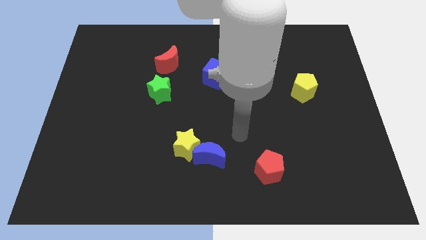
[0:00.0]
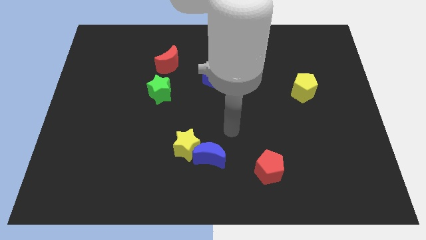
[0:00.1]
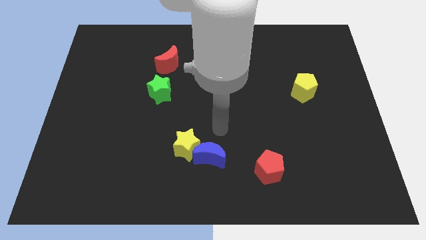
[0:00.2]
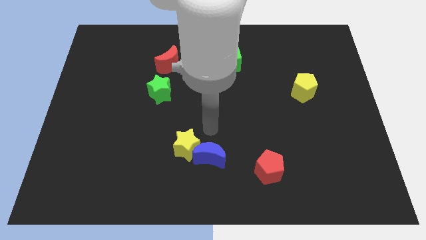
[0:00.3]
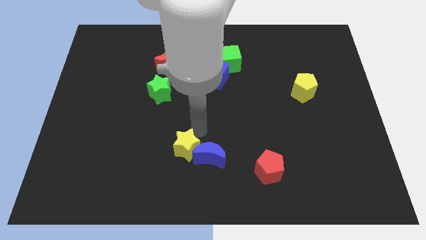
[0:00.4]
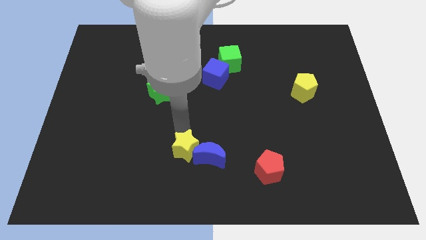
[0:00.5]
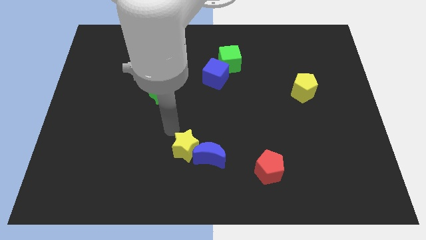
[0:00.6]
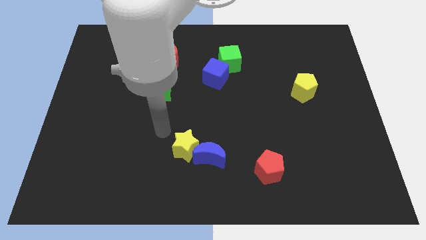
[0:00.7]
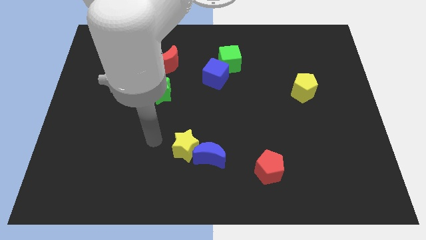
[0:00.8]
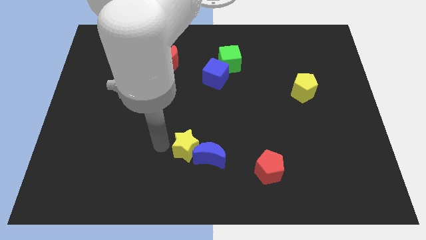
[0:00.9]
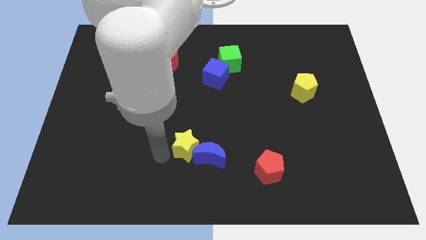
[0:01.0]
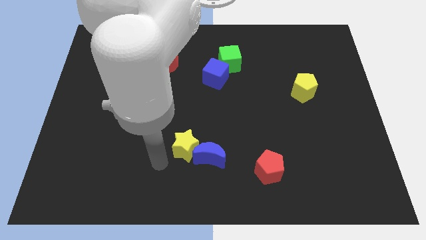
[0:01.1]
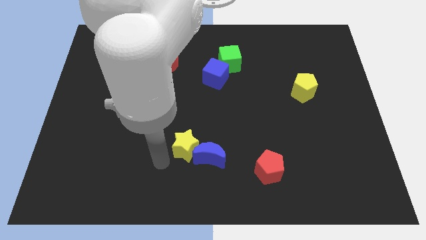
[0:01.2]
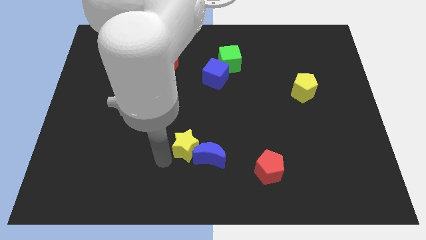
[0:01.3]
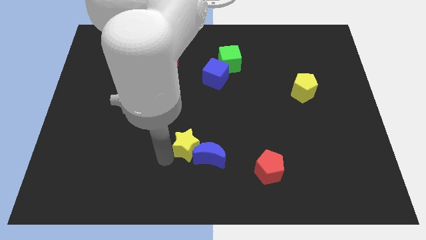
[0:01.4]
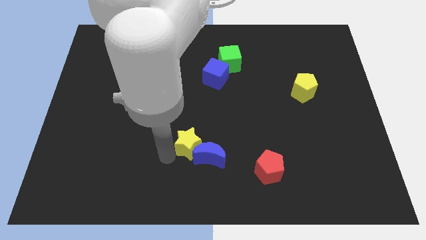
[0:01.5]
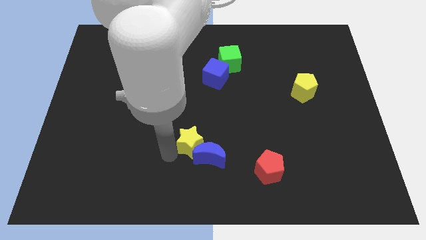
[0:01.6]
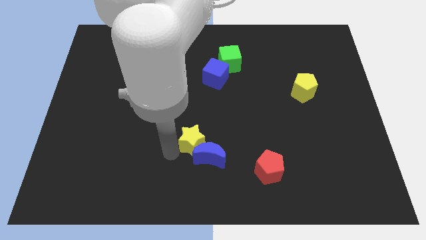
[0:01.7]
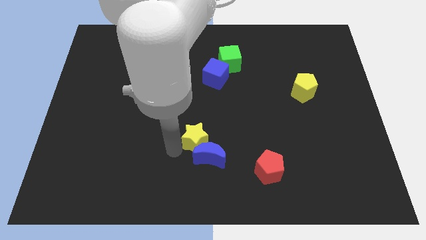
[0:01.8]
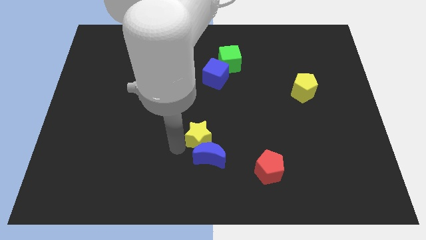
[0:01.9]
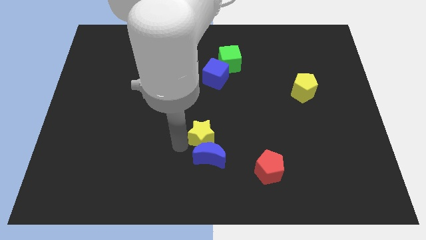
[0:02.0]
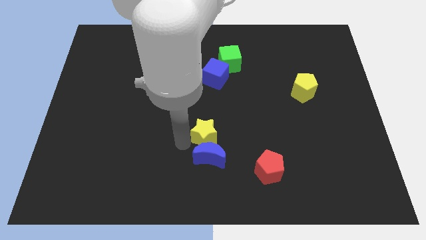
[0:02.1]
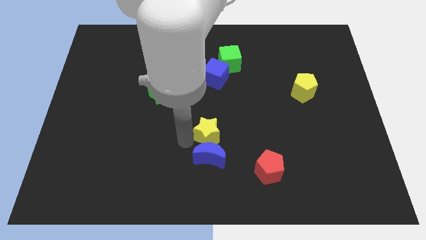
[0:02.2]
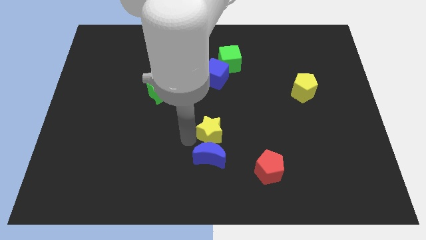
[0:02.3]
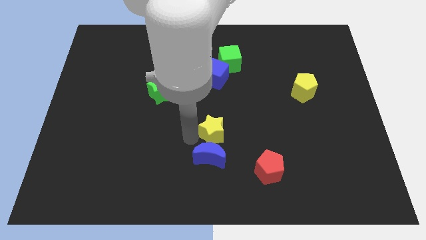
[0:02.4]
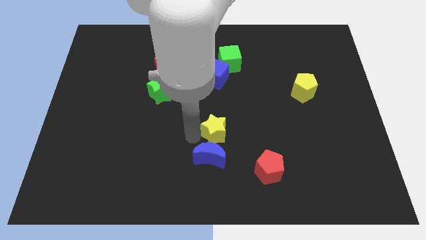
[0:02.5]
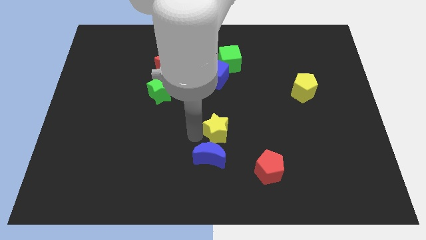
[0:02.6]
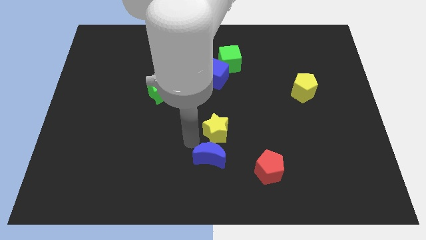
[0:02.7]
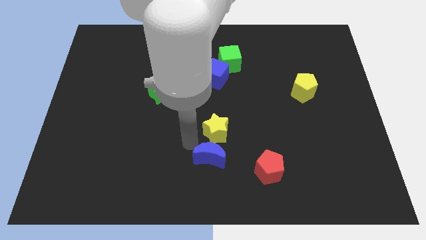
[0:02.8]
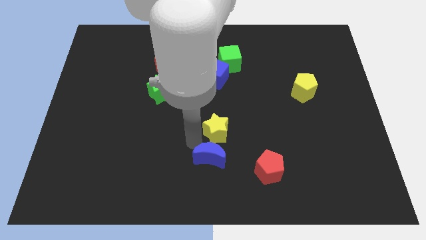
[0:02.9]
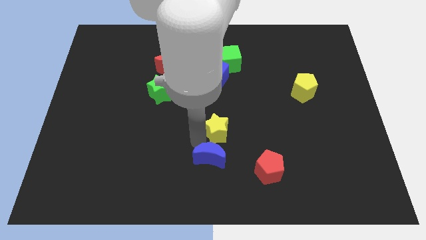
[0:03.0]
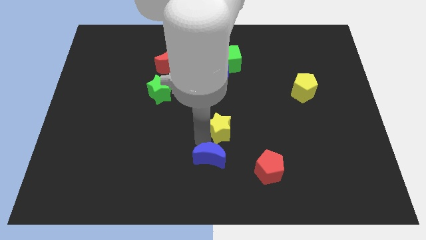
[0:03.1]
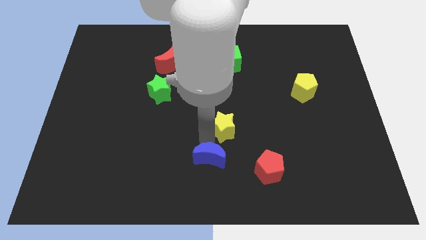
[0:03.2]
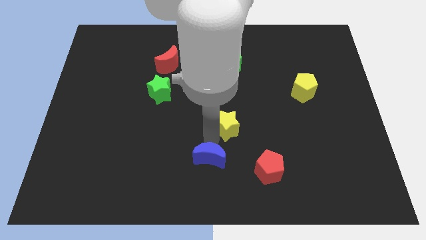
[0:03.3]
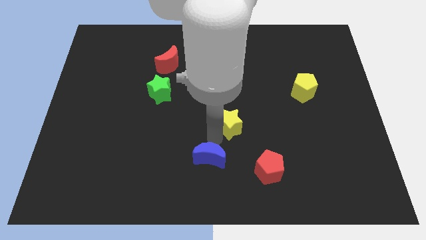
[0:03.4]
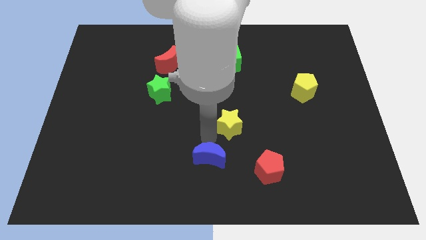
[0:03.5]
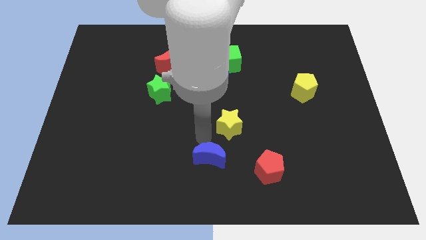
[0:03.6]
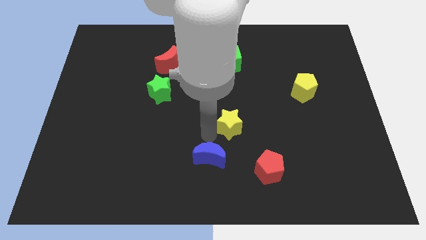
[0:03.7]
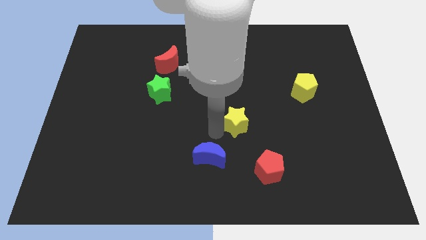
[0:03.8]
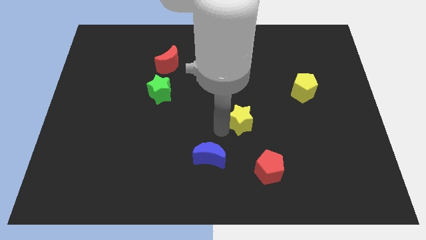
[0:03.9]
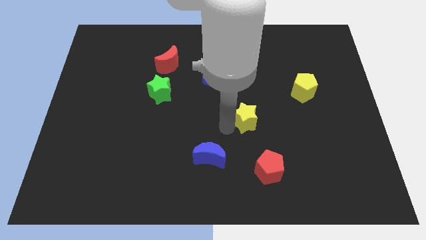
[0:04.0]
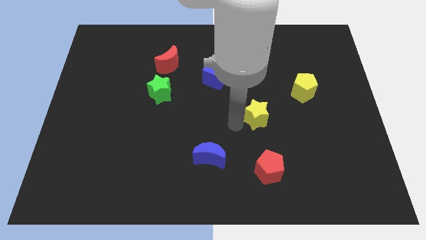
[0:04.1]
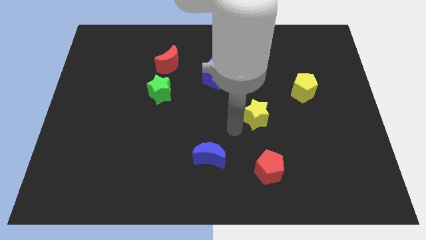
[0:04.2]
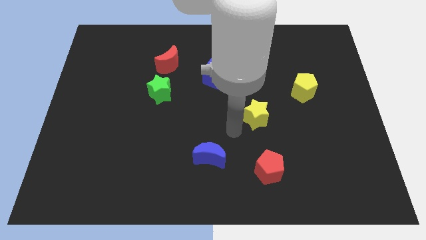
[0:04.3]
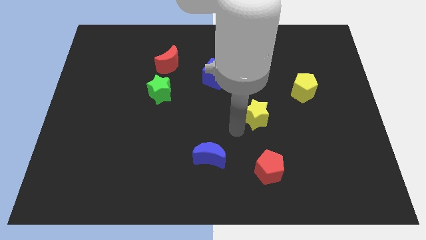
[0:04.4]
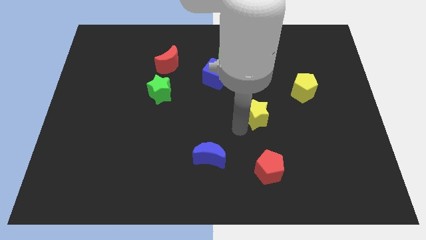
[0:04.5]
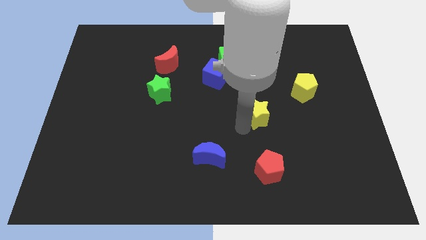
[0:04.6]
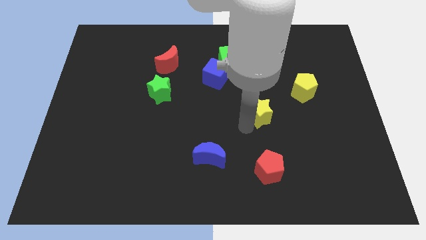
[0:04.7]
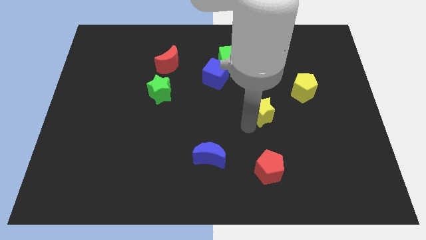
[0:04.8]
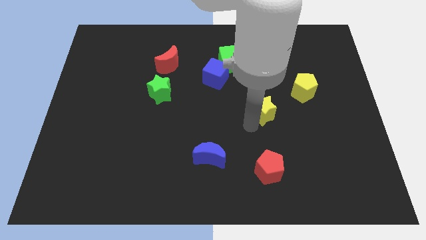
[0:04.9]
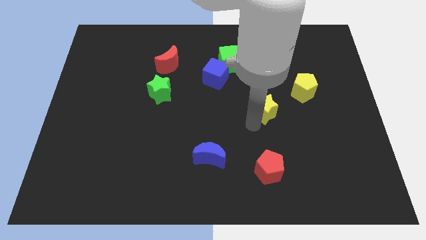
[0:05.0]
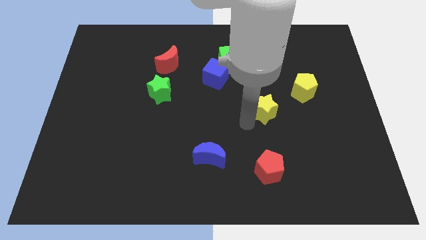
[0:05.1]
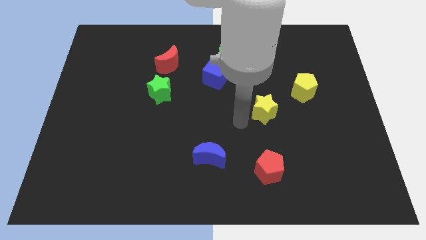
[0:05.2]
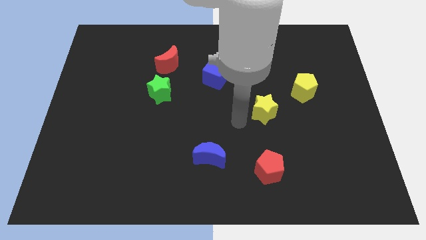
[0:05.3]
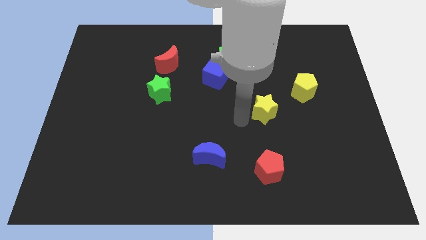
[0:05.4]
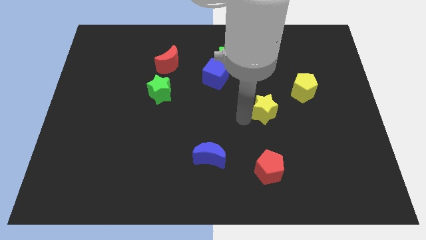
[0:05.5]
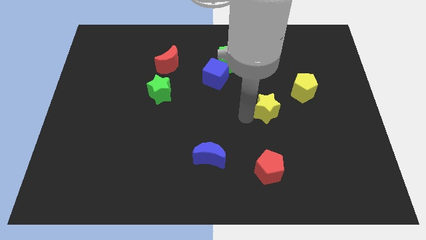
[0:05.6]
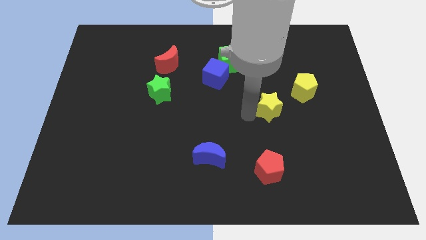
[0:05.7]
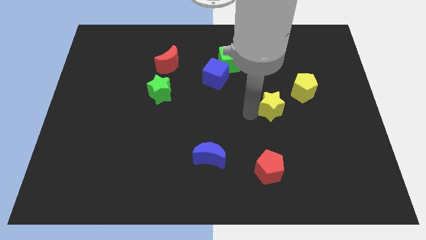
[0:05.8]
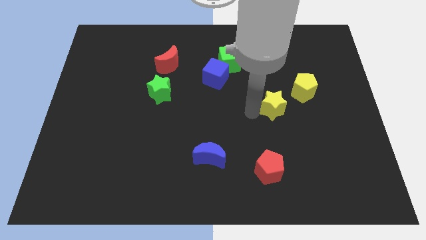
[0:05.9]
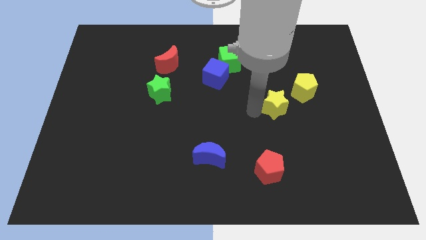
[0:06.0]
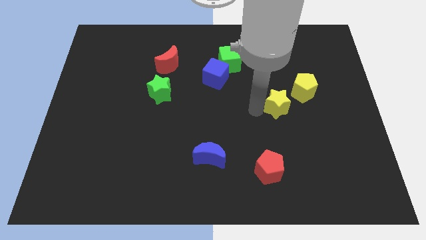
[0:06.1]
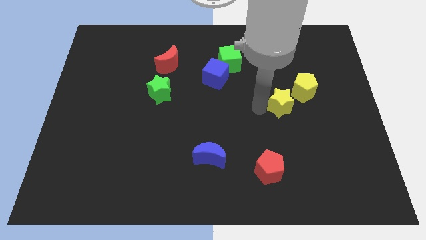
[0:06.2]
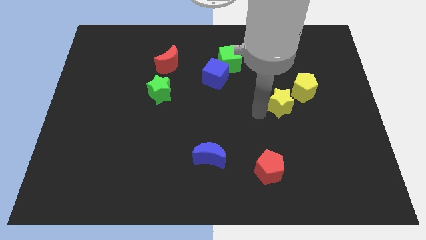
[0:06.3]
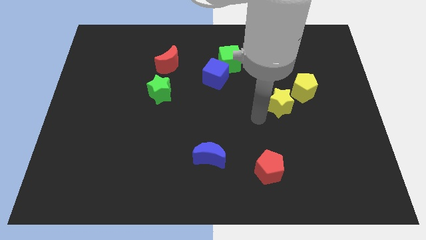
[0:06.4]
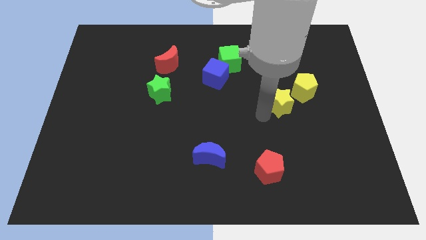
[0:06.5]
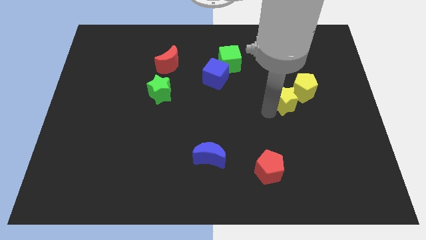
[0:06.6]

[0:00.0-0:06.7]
push the yellow star to the yellow pentagon

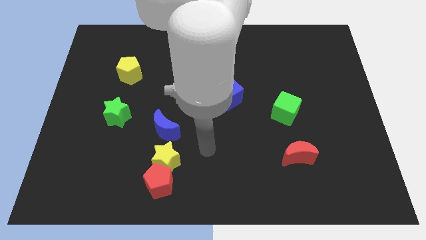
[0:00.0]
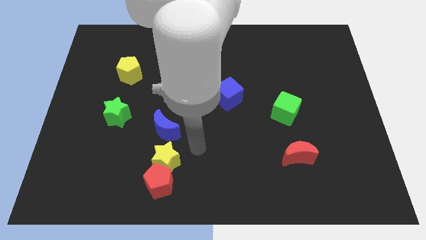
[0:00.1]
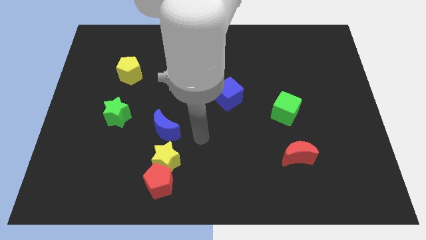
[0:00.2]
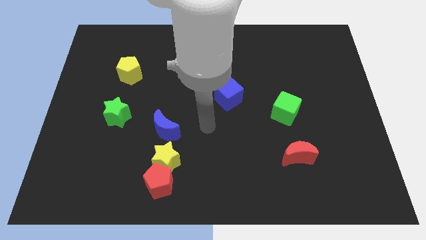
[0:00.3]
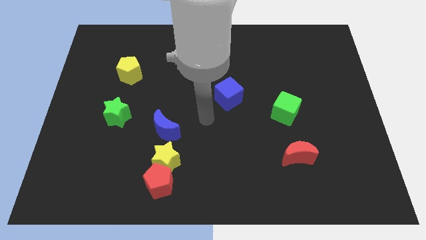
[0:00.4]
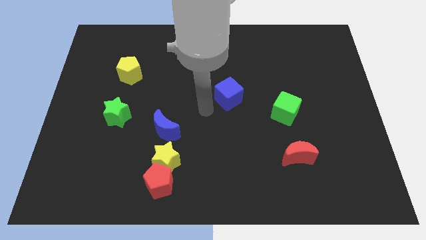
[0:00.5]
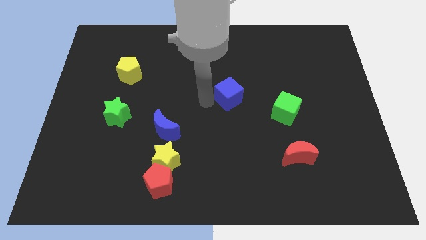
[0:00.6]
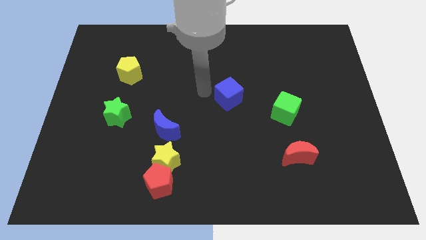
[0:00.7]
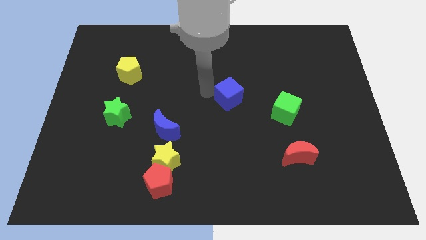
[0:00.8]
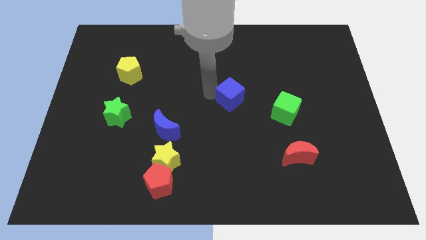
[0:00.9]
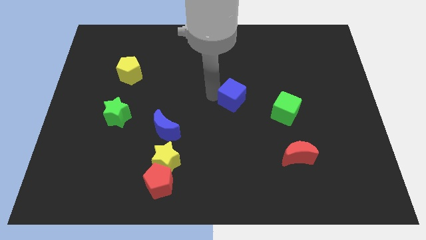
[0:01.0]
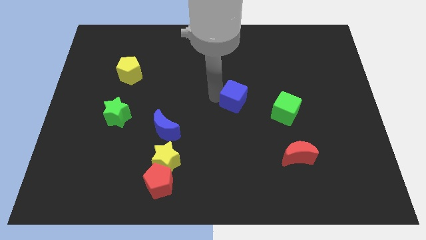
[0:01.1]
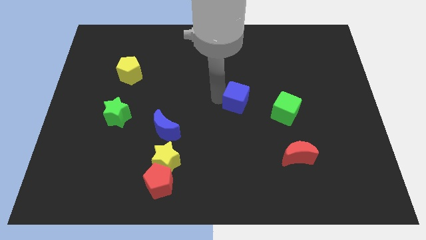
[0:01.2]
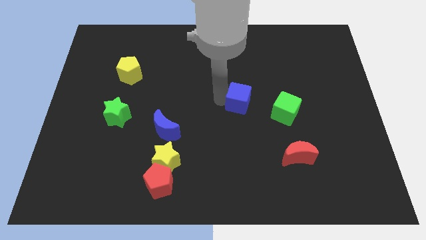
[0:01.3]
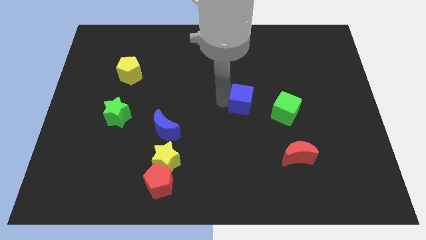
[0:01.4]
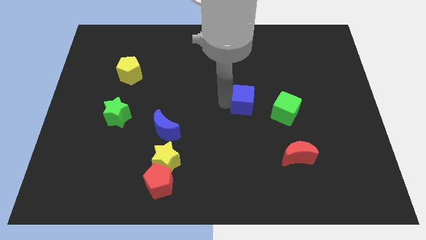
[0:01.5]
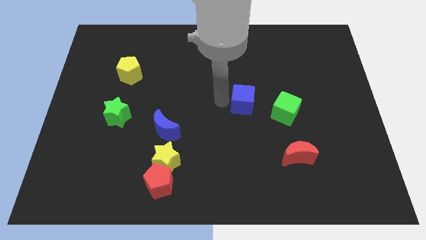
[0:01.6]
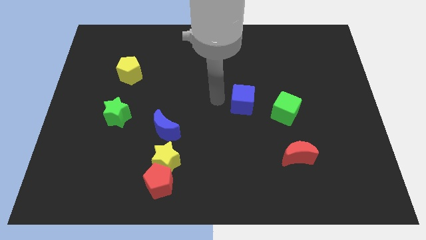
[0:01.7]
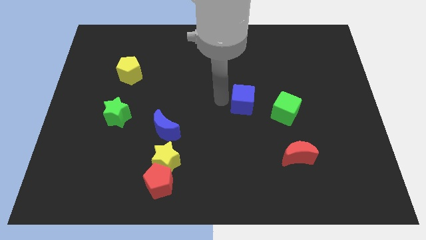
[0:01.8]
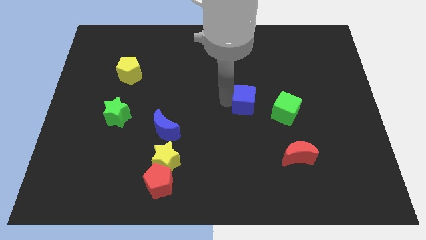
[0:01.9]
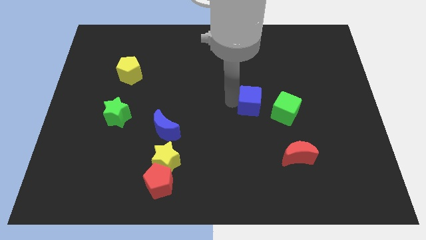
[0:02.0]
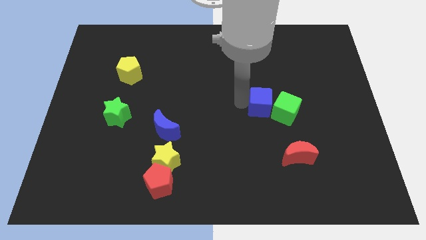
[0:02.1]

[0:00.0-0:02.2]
put the blue cube towards the green cube
